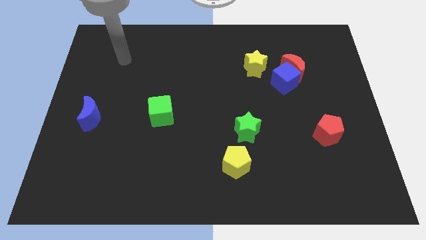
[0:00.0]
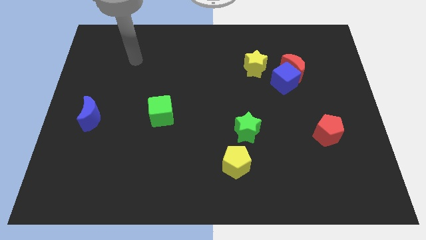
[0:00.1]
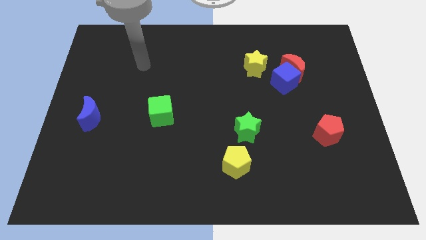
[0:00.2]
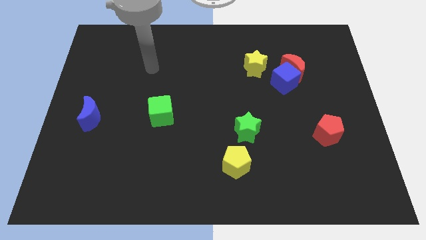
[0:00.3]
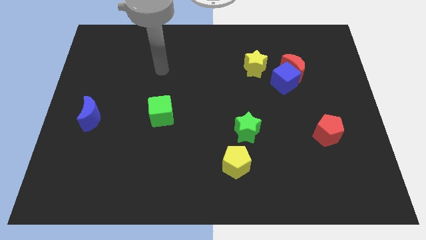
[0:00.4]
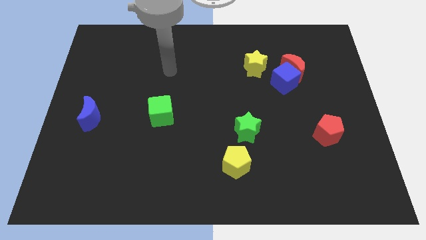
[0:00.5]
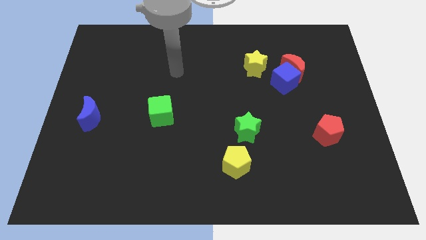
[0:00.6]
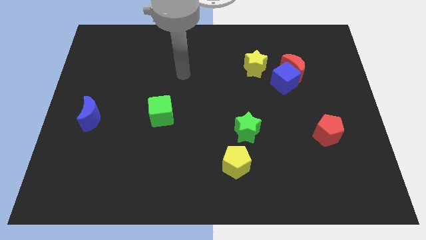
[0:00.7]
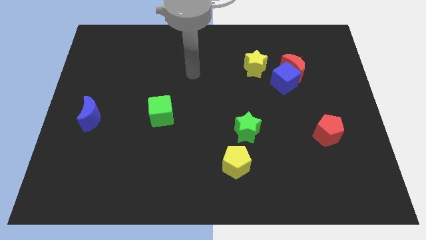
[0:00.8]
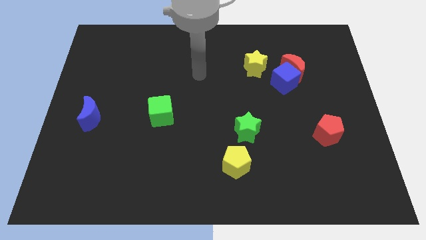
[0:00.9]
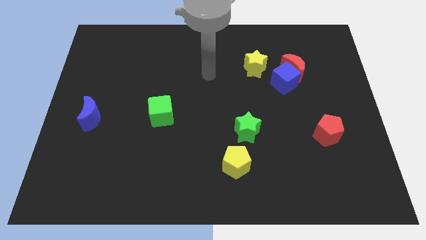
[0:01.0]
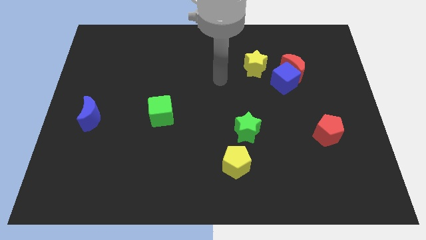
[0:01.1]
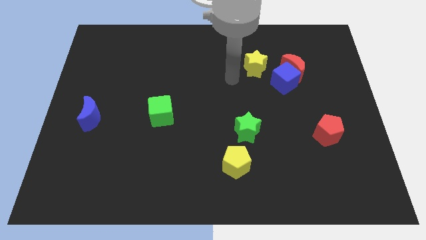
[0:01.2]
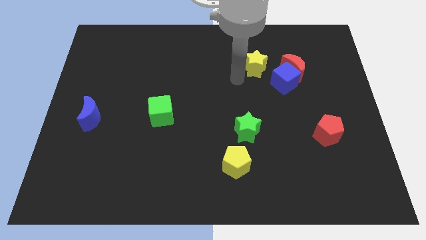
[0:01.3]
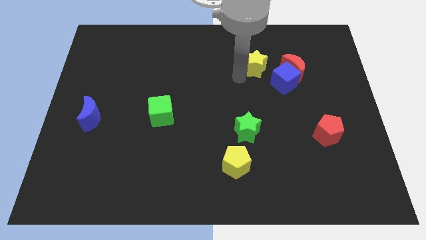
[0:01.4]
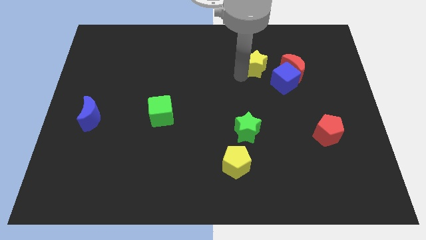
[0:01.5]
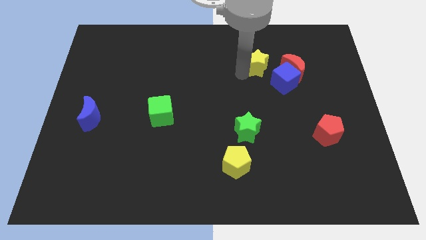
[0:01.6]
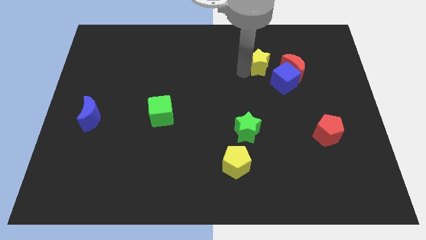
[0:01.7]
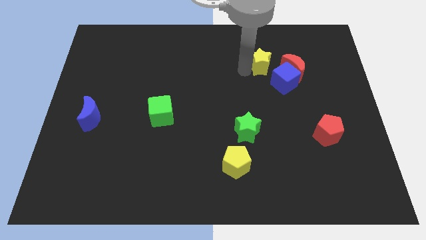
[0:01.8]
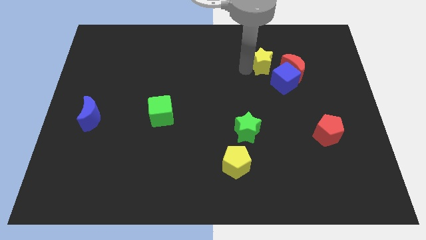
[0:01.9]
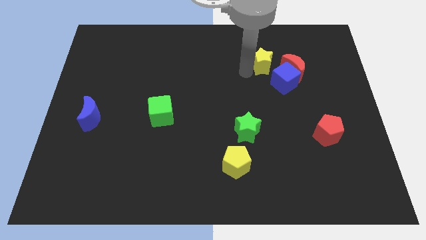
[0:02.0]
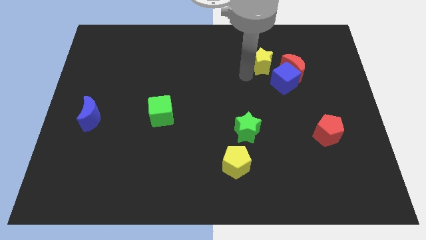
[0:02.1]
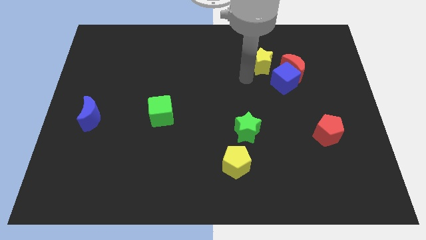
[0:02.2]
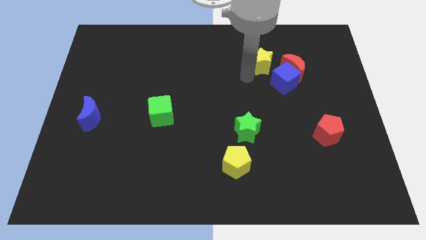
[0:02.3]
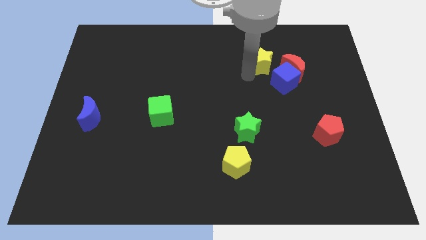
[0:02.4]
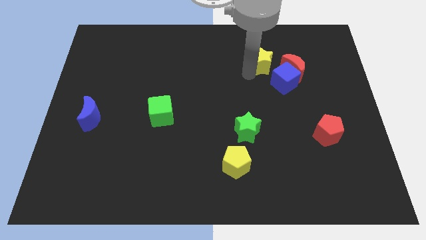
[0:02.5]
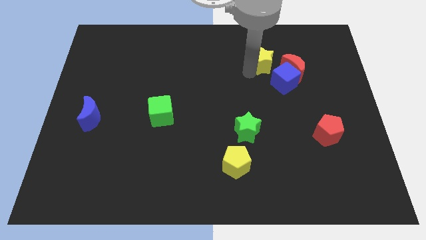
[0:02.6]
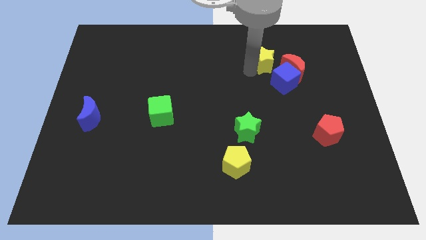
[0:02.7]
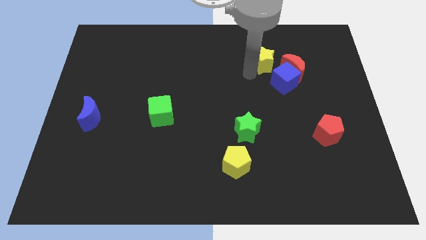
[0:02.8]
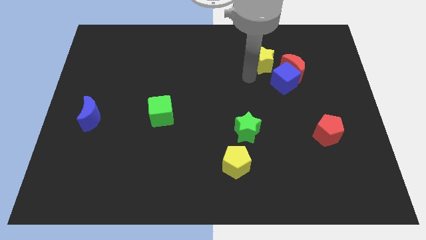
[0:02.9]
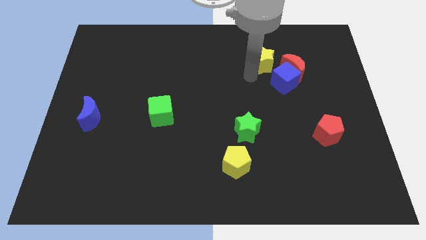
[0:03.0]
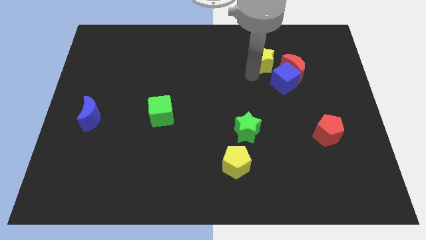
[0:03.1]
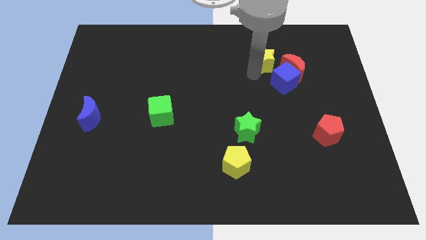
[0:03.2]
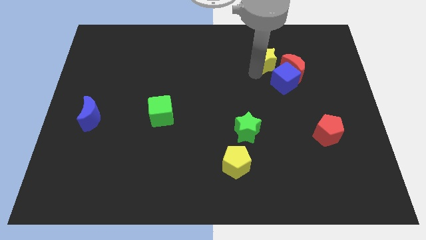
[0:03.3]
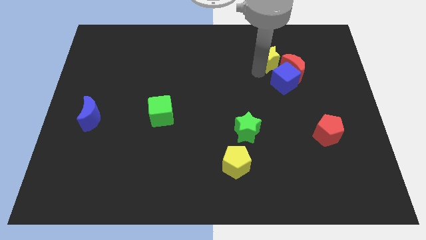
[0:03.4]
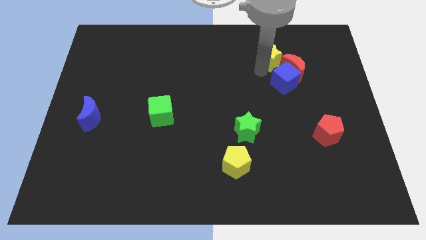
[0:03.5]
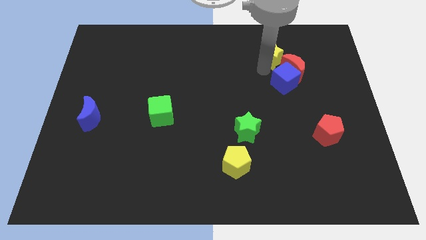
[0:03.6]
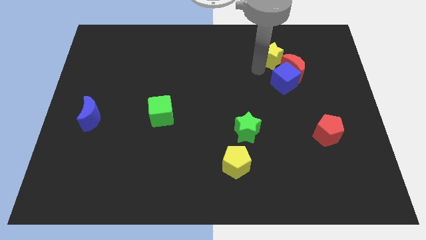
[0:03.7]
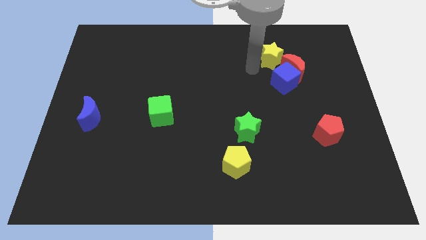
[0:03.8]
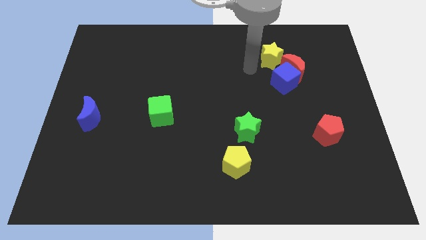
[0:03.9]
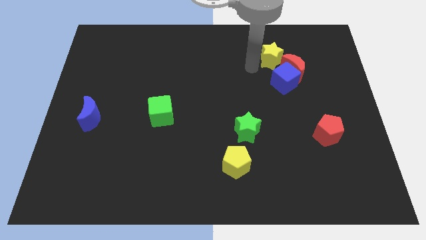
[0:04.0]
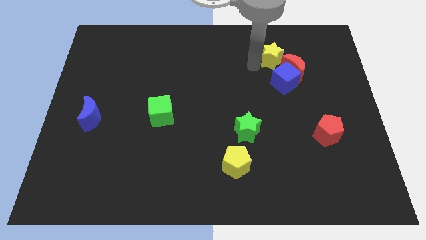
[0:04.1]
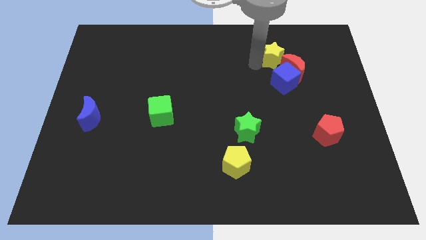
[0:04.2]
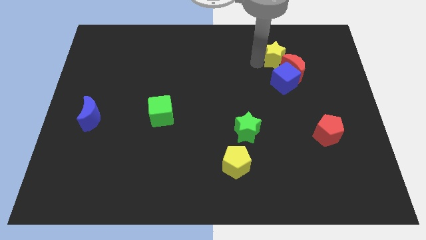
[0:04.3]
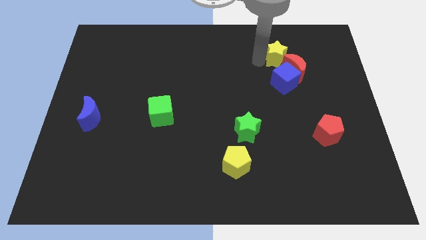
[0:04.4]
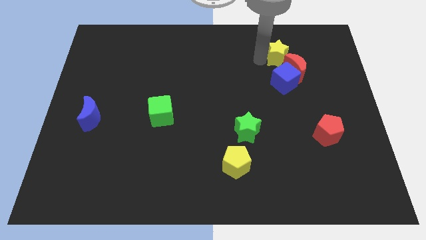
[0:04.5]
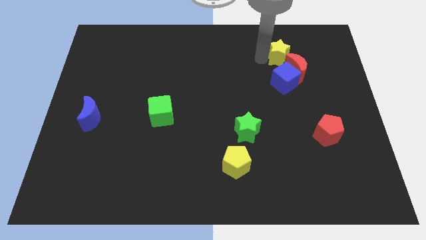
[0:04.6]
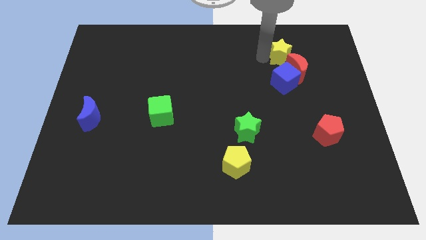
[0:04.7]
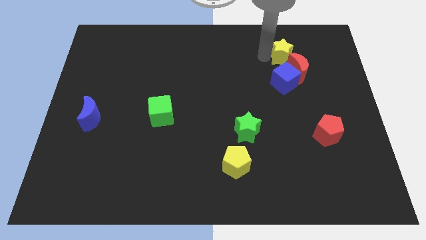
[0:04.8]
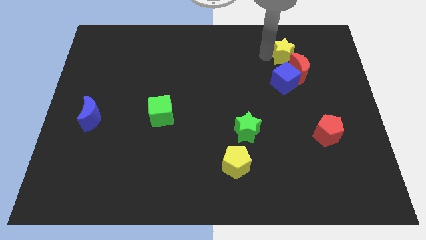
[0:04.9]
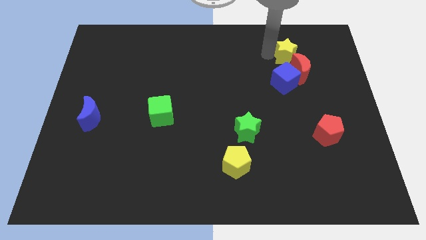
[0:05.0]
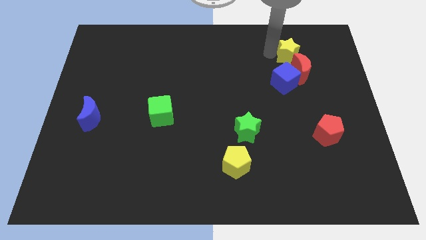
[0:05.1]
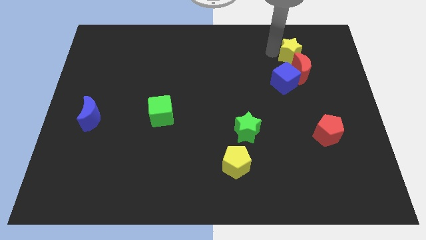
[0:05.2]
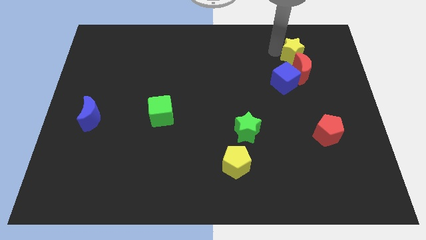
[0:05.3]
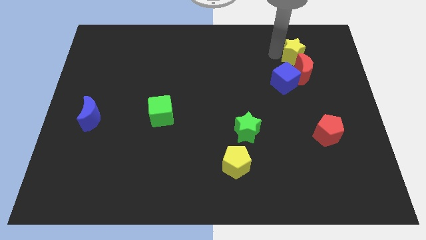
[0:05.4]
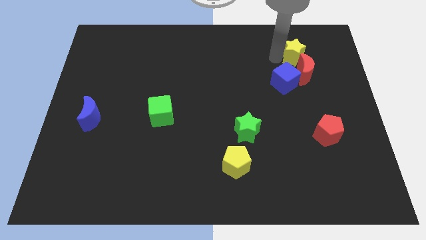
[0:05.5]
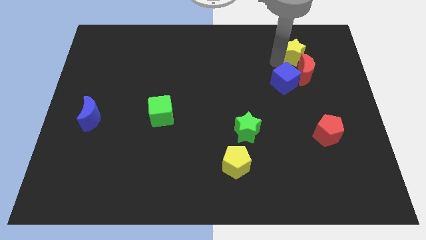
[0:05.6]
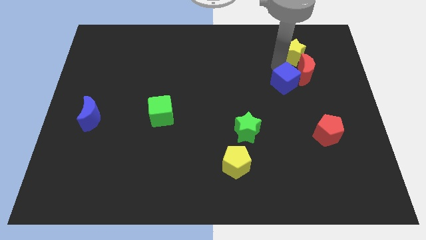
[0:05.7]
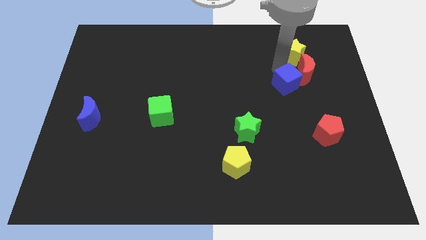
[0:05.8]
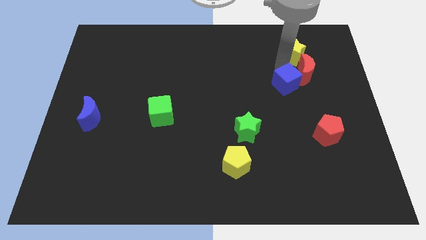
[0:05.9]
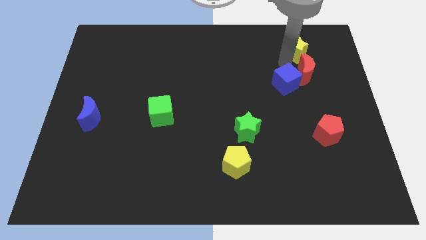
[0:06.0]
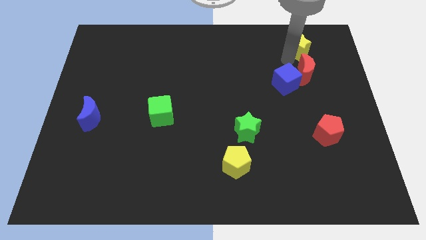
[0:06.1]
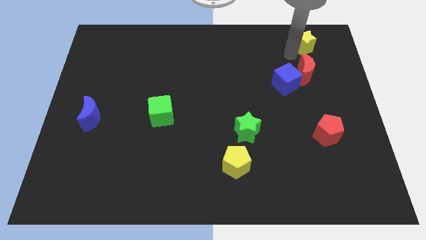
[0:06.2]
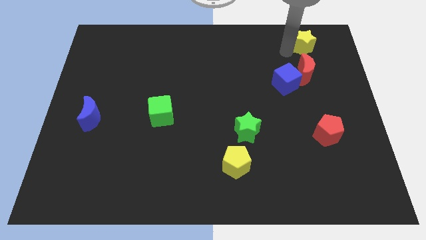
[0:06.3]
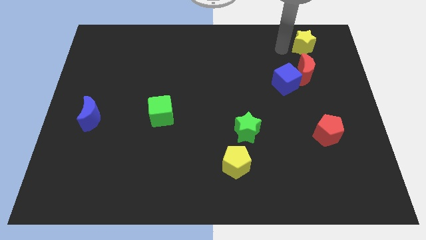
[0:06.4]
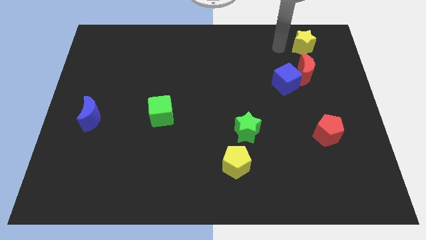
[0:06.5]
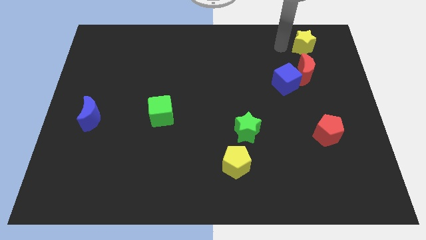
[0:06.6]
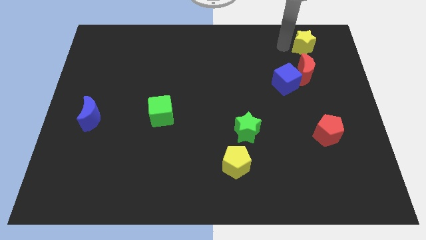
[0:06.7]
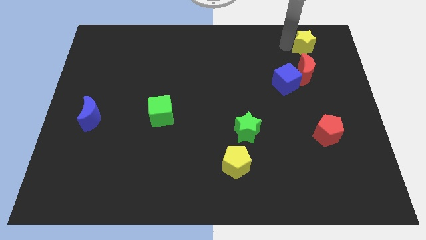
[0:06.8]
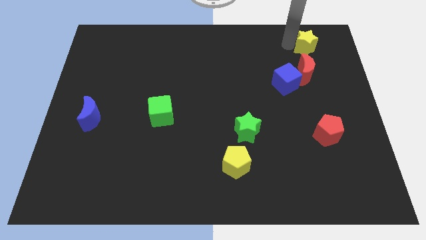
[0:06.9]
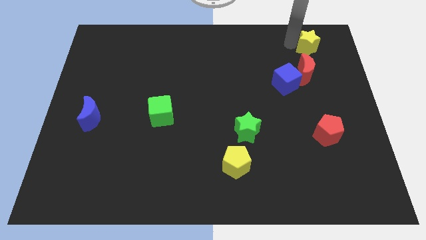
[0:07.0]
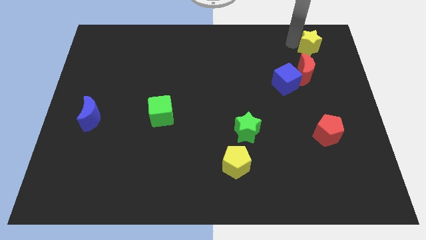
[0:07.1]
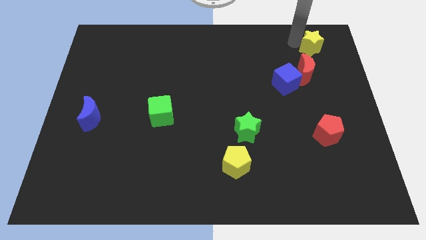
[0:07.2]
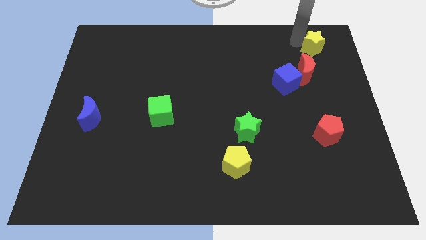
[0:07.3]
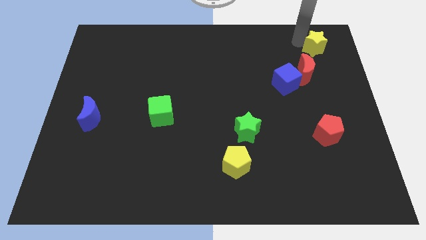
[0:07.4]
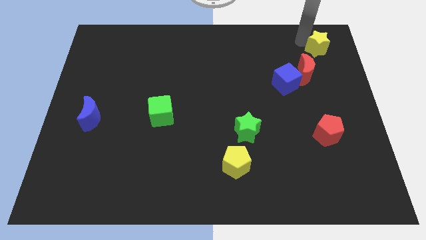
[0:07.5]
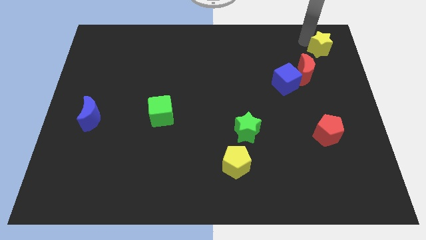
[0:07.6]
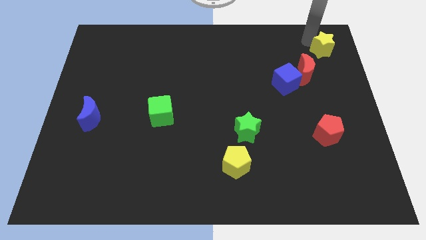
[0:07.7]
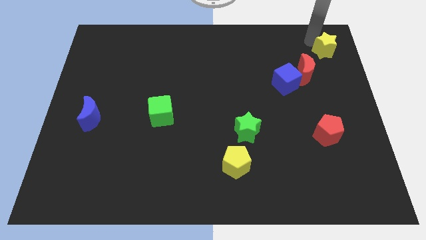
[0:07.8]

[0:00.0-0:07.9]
put the yellow star to the top right
